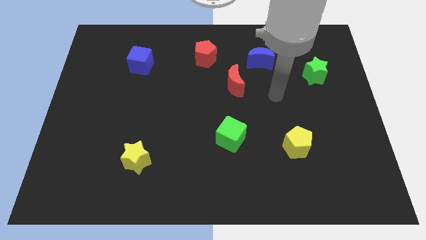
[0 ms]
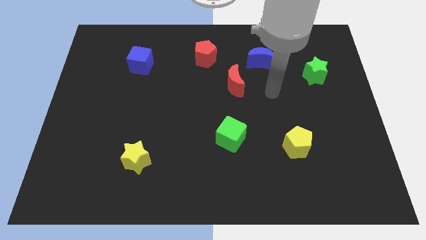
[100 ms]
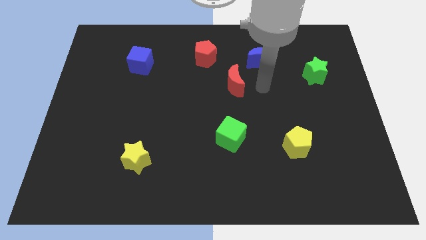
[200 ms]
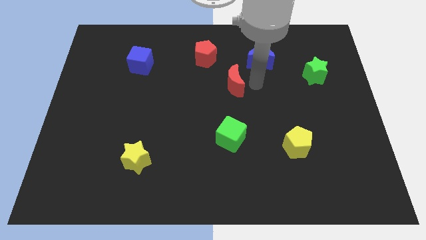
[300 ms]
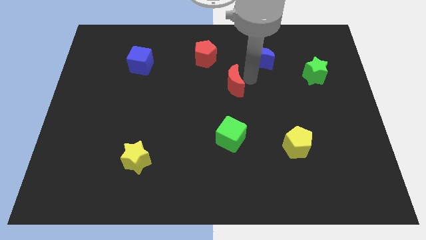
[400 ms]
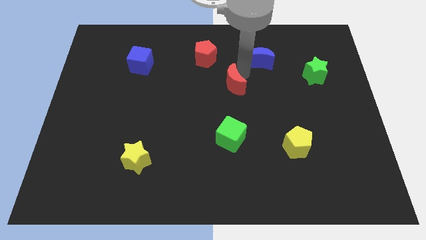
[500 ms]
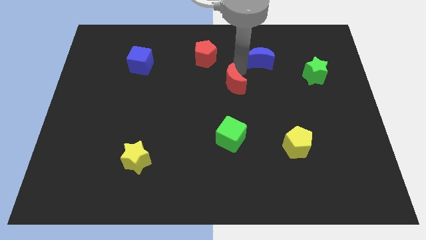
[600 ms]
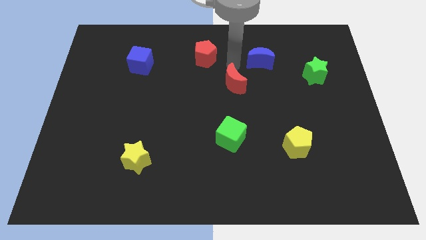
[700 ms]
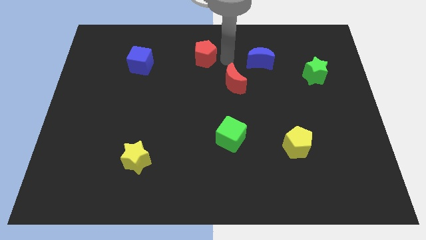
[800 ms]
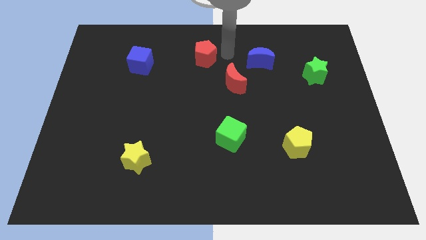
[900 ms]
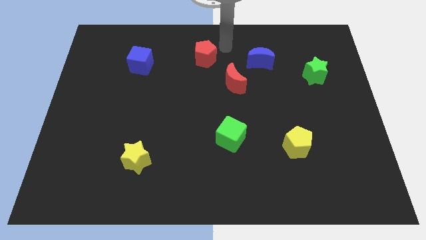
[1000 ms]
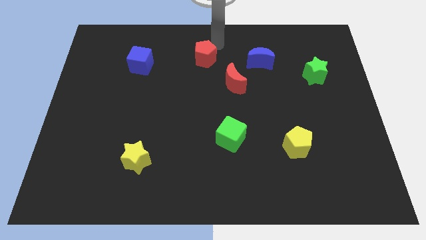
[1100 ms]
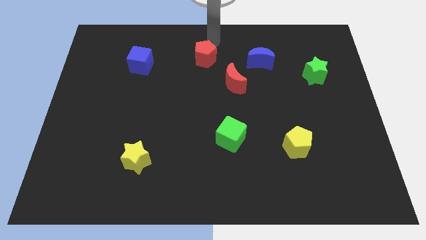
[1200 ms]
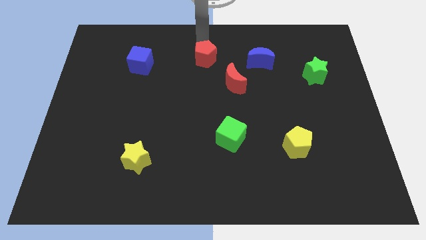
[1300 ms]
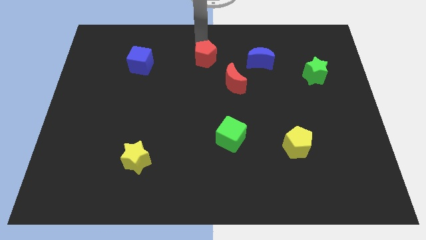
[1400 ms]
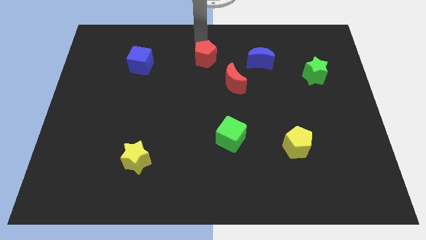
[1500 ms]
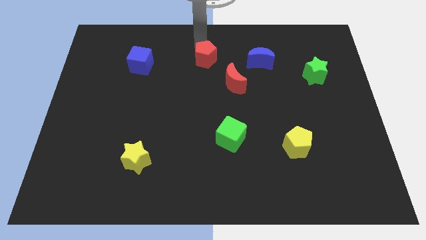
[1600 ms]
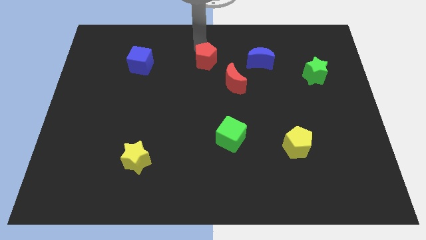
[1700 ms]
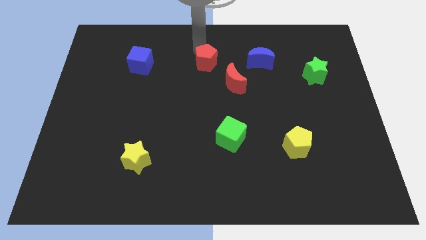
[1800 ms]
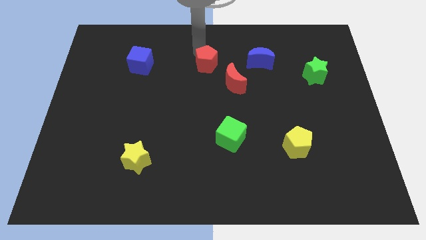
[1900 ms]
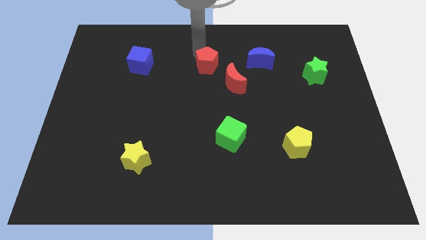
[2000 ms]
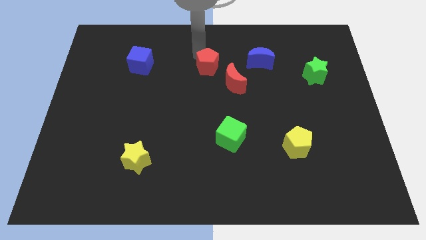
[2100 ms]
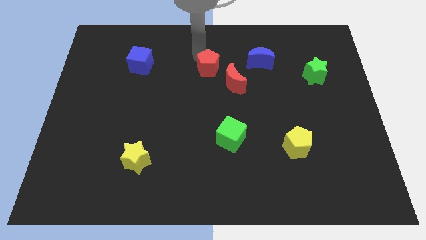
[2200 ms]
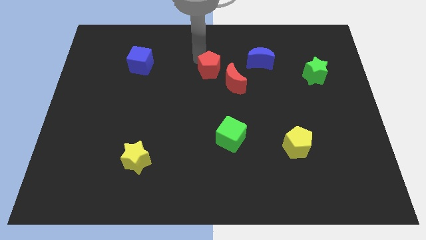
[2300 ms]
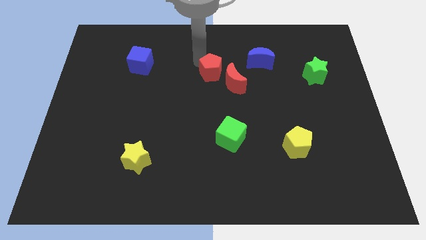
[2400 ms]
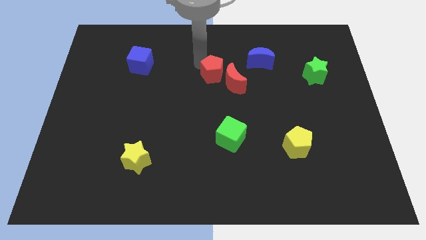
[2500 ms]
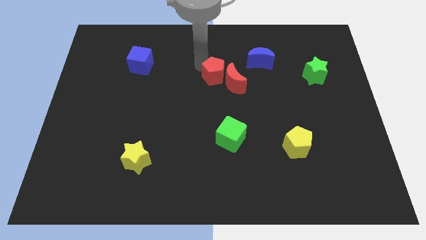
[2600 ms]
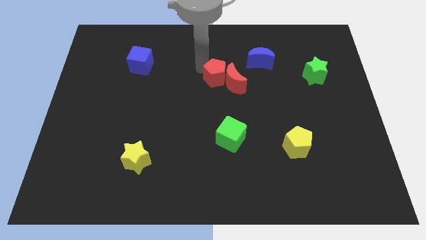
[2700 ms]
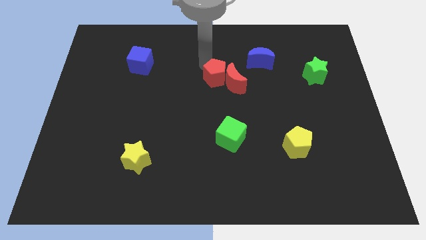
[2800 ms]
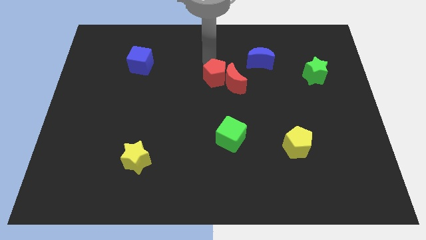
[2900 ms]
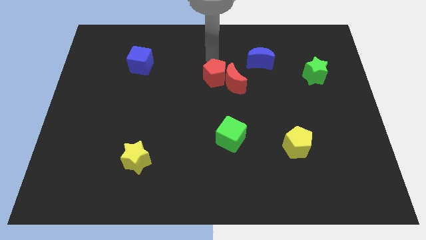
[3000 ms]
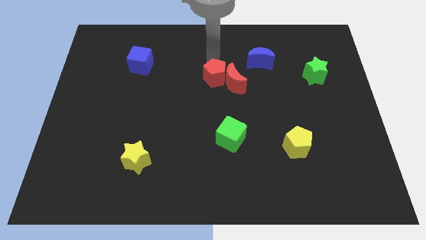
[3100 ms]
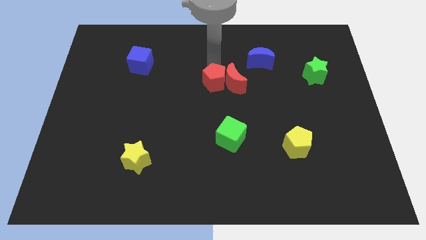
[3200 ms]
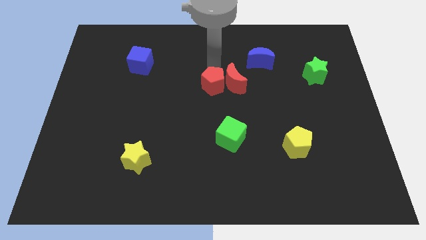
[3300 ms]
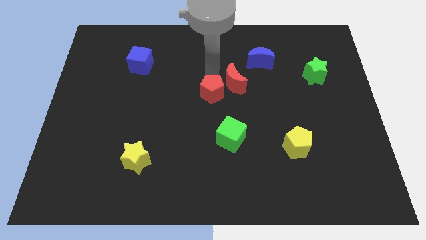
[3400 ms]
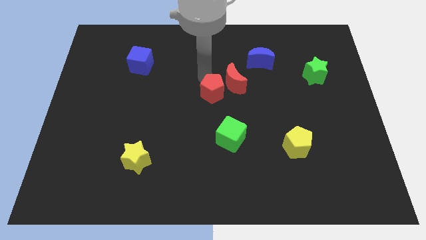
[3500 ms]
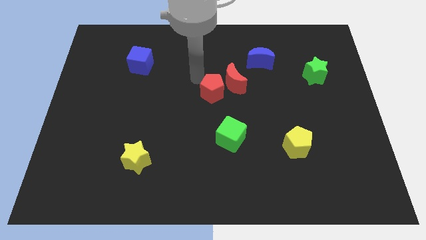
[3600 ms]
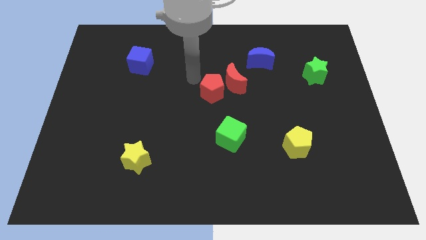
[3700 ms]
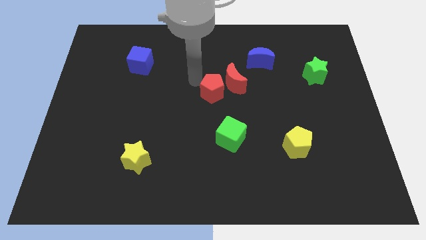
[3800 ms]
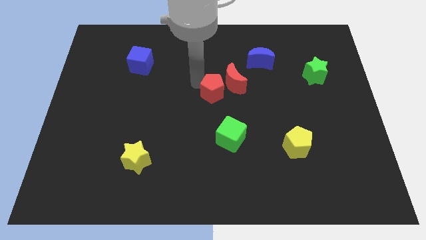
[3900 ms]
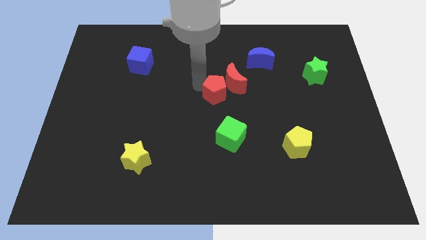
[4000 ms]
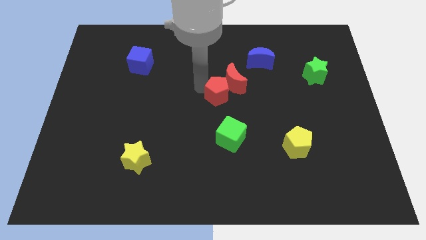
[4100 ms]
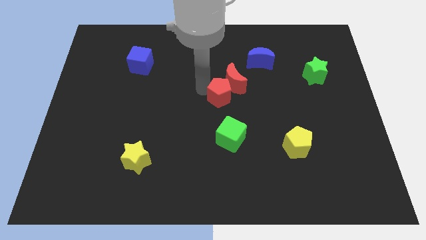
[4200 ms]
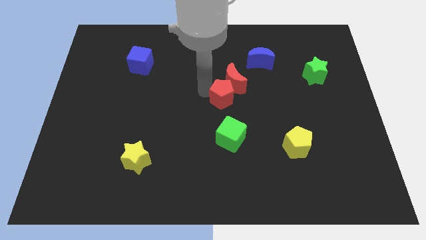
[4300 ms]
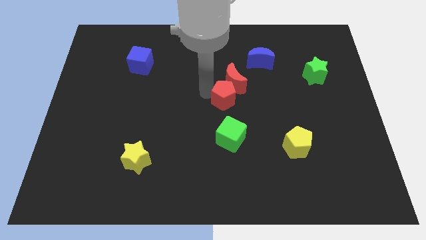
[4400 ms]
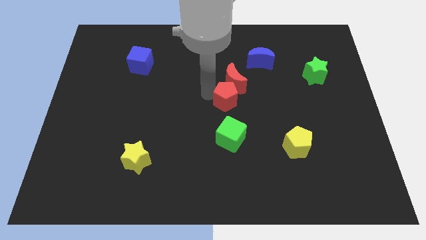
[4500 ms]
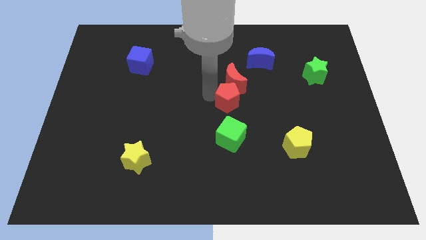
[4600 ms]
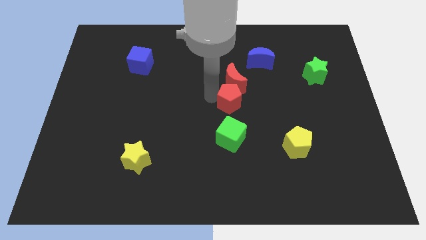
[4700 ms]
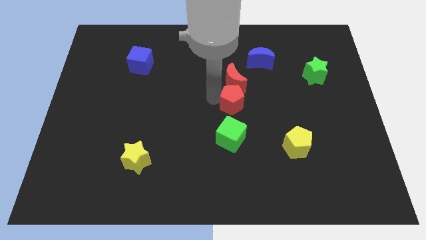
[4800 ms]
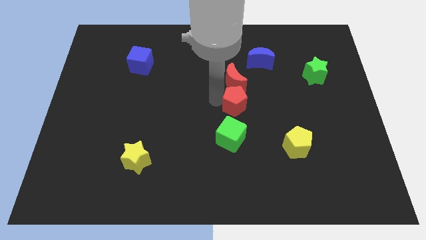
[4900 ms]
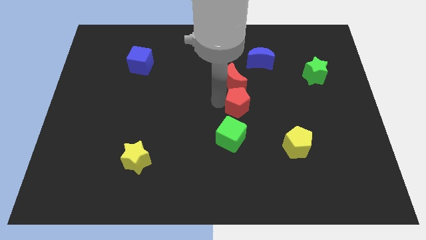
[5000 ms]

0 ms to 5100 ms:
slide the red pentagon to the top right side of the green cube

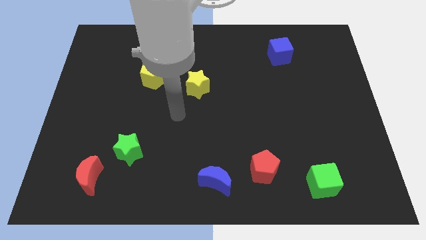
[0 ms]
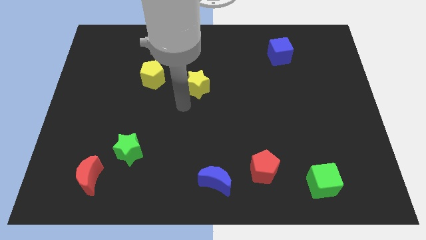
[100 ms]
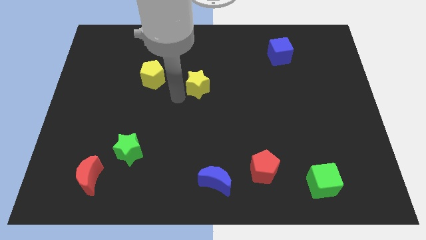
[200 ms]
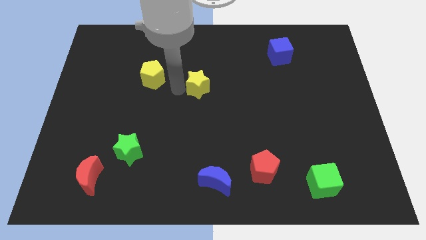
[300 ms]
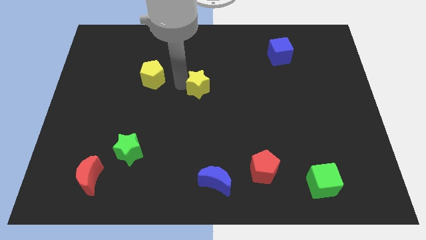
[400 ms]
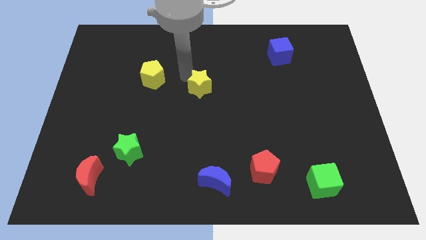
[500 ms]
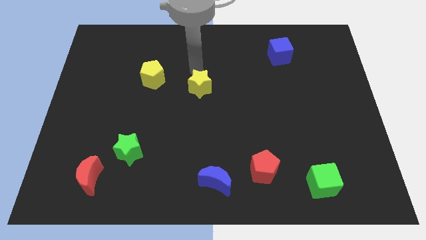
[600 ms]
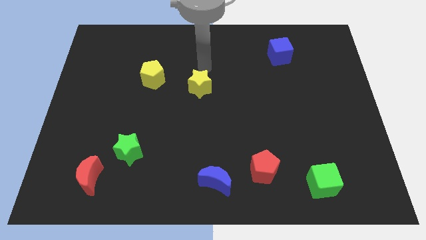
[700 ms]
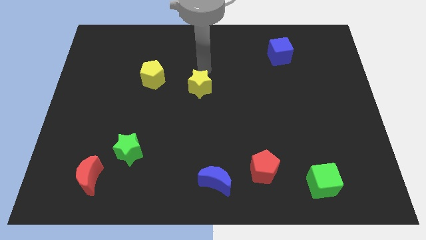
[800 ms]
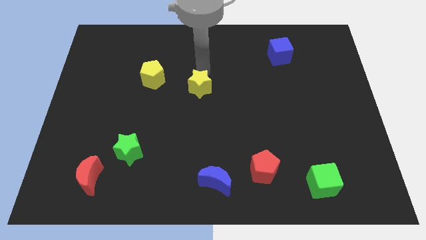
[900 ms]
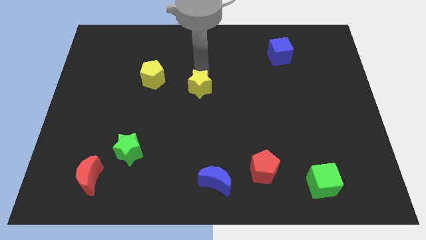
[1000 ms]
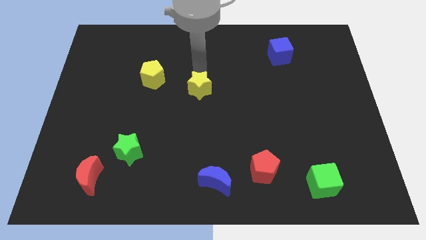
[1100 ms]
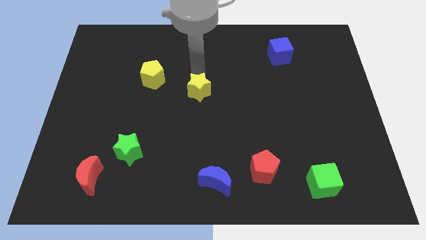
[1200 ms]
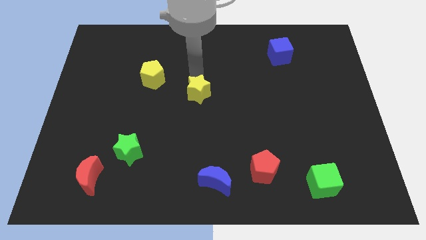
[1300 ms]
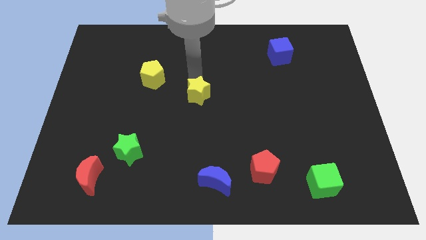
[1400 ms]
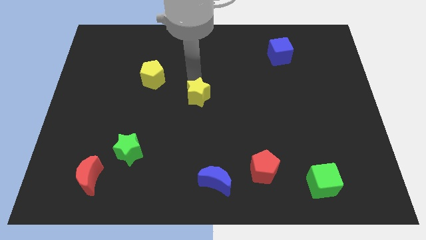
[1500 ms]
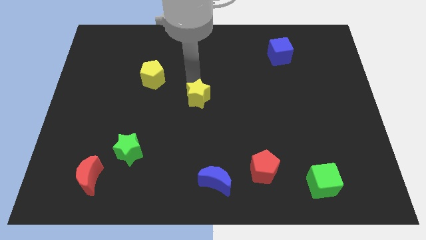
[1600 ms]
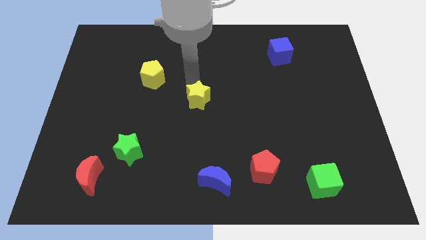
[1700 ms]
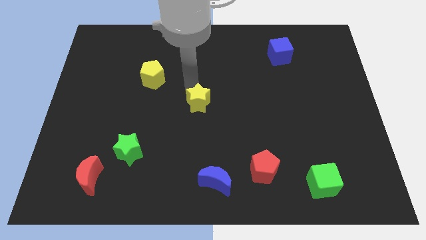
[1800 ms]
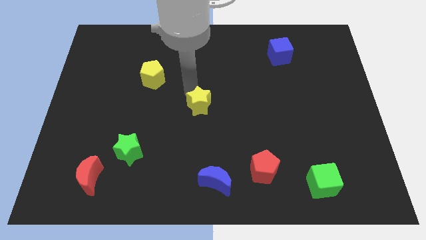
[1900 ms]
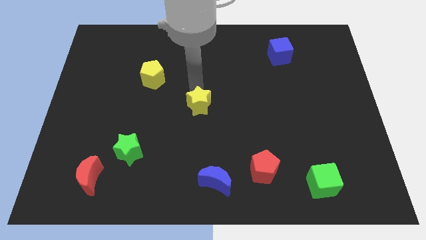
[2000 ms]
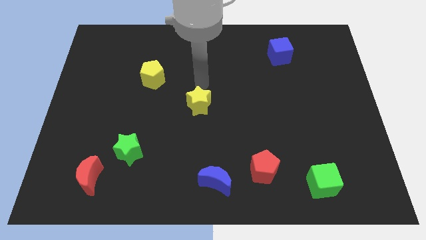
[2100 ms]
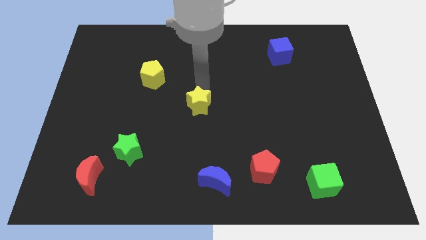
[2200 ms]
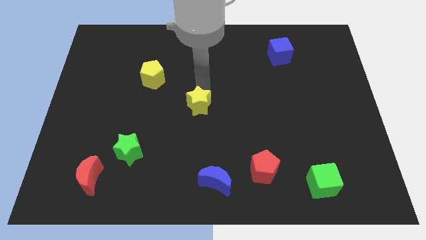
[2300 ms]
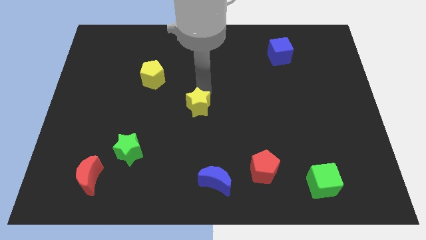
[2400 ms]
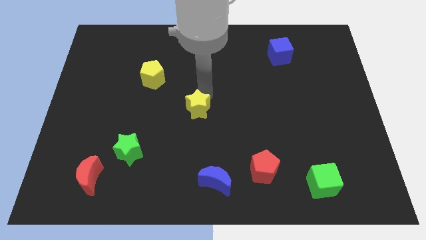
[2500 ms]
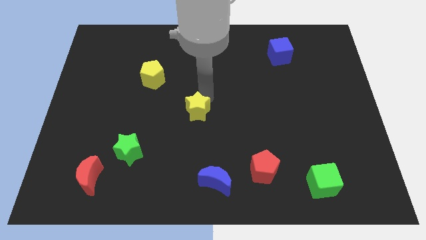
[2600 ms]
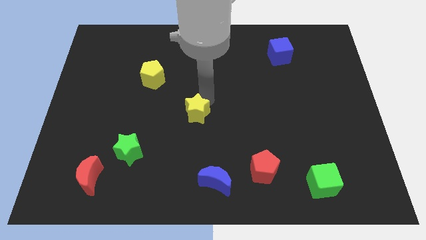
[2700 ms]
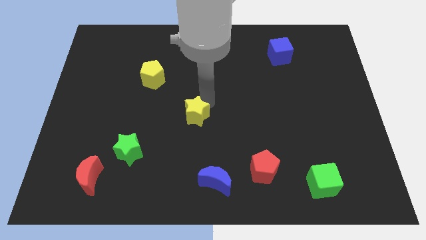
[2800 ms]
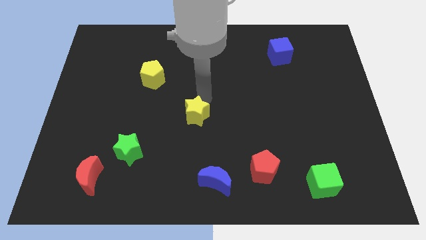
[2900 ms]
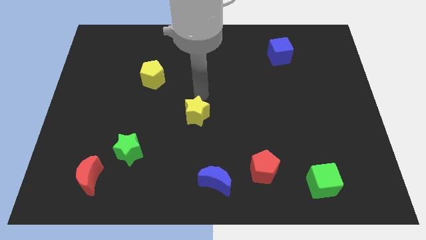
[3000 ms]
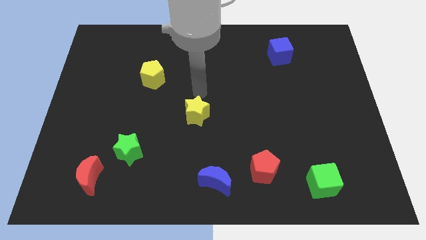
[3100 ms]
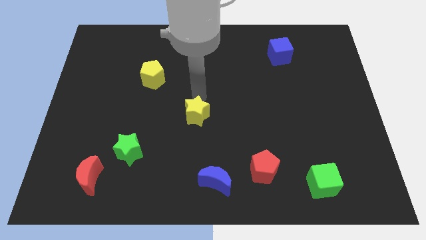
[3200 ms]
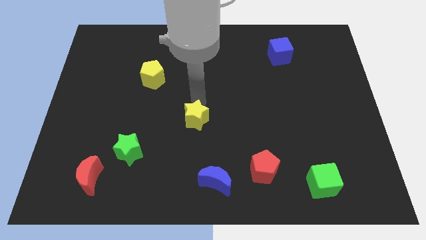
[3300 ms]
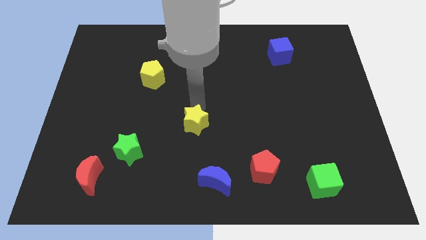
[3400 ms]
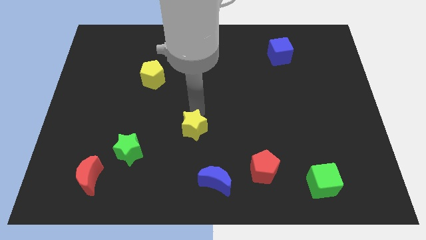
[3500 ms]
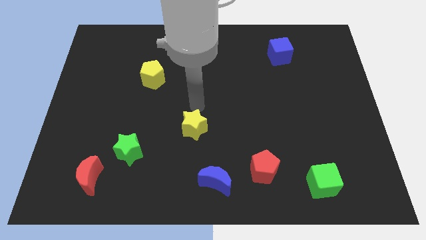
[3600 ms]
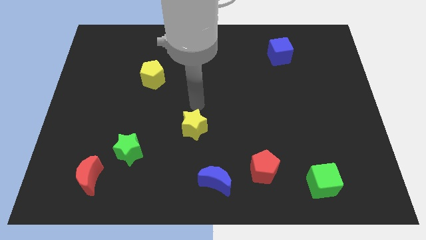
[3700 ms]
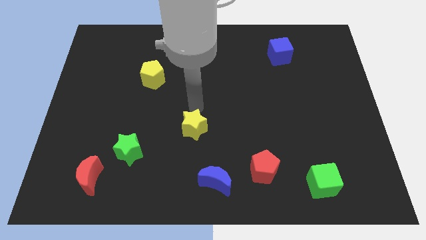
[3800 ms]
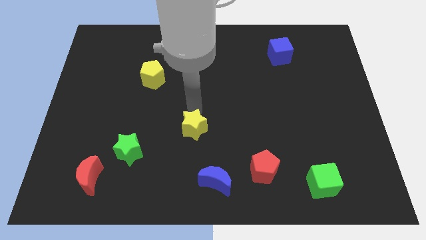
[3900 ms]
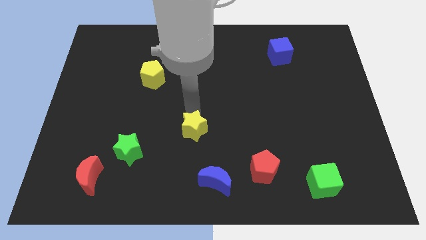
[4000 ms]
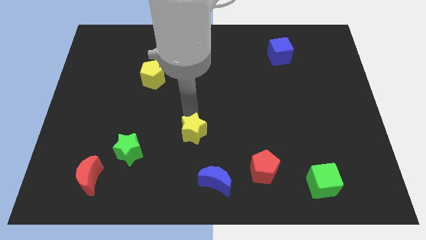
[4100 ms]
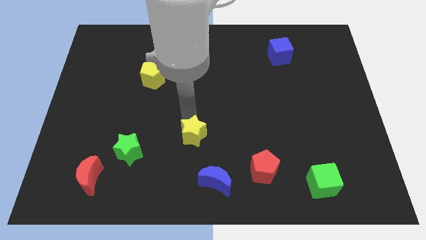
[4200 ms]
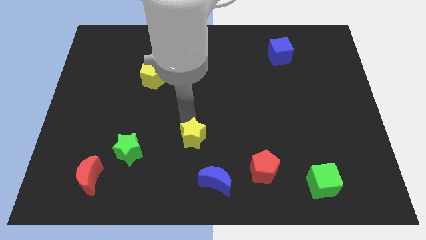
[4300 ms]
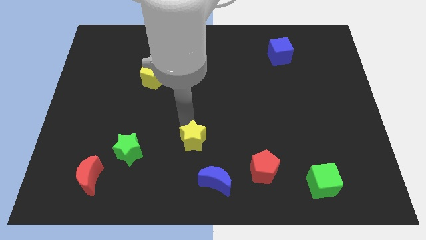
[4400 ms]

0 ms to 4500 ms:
move the yellow star to the top left of the blue moon
